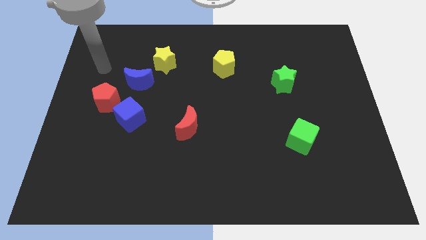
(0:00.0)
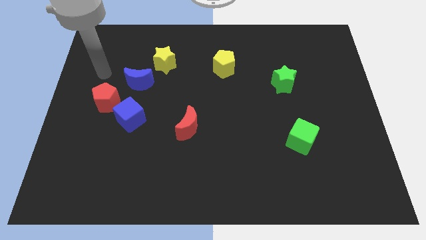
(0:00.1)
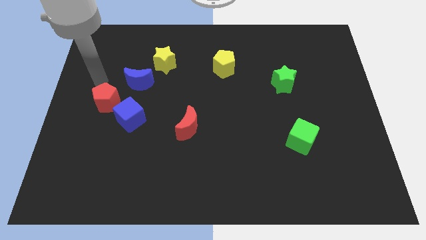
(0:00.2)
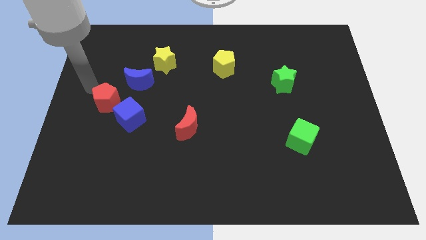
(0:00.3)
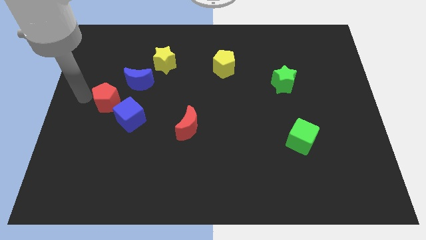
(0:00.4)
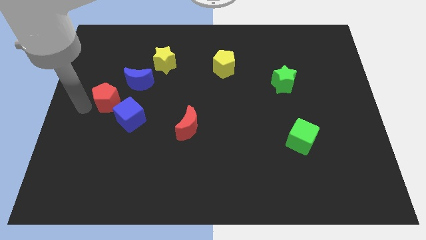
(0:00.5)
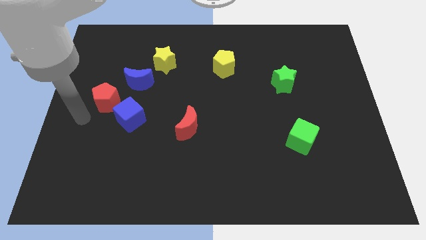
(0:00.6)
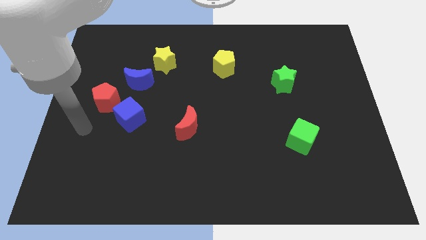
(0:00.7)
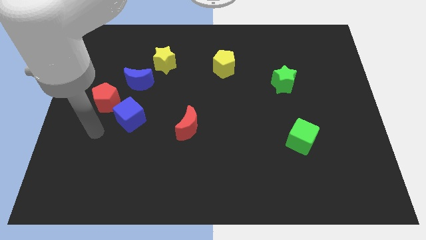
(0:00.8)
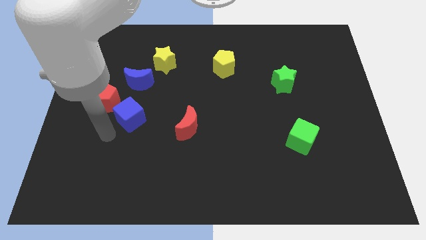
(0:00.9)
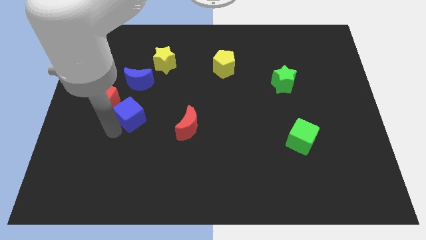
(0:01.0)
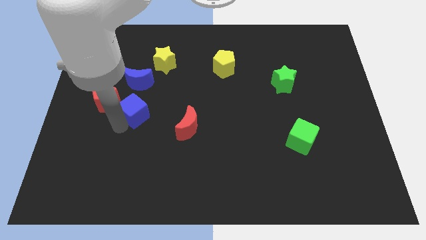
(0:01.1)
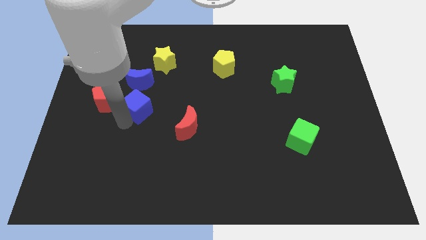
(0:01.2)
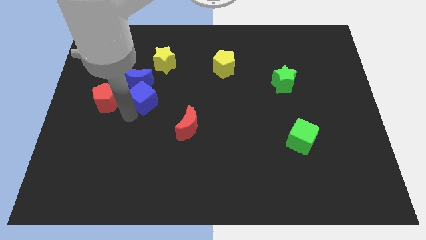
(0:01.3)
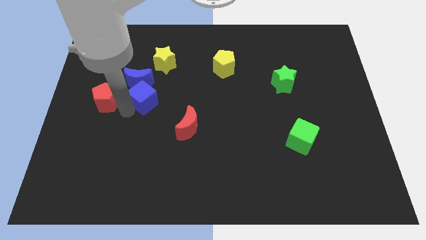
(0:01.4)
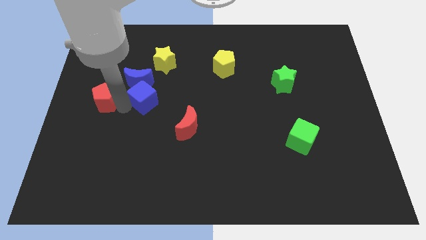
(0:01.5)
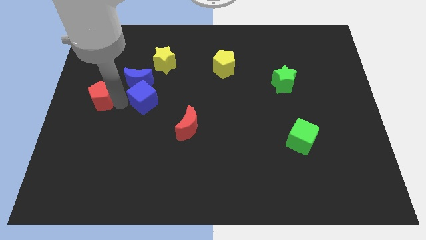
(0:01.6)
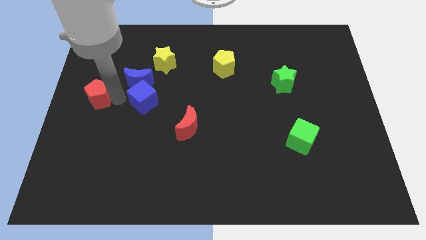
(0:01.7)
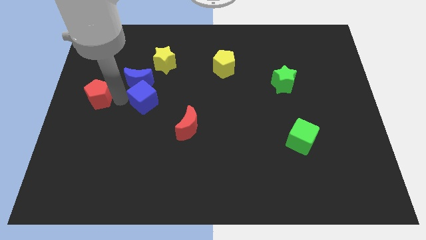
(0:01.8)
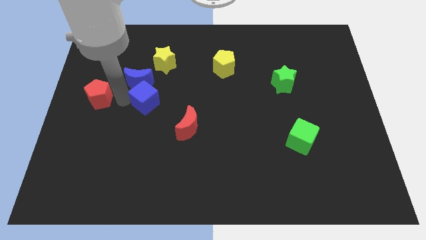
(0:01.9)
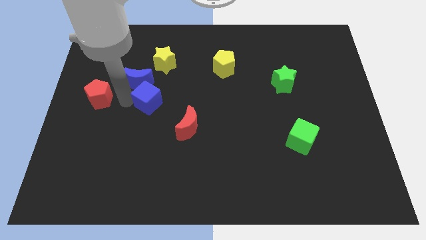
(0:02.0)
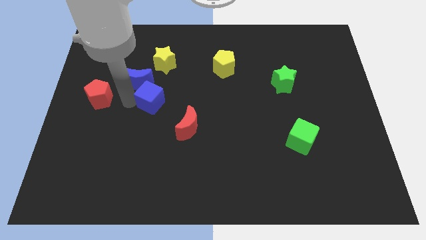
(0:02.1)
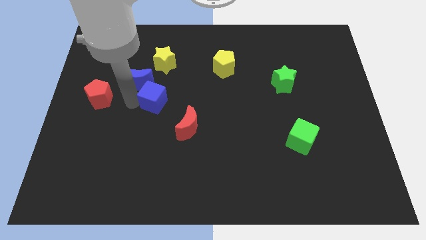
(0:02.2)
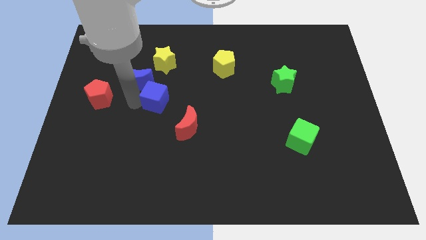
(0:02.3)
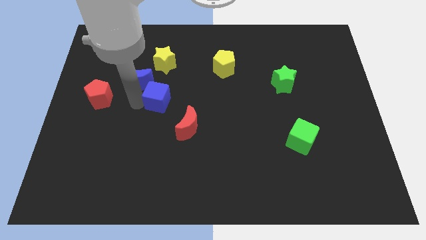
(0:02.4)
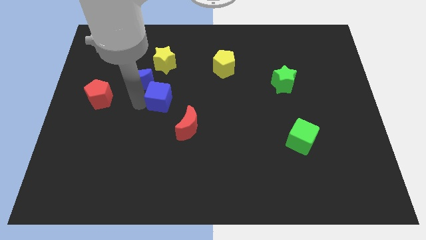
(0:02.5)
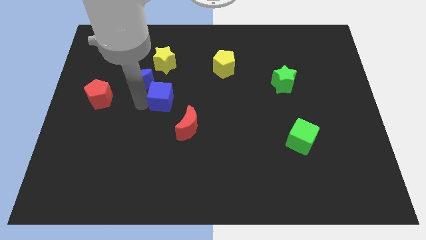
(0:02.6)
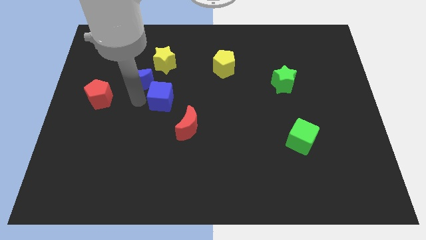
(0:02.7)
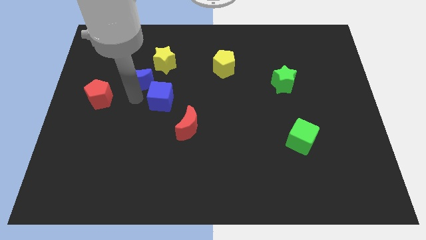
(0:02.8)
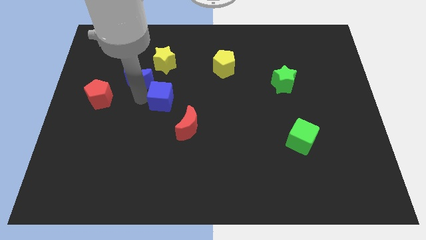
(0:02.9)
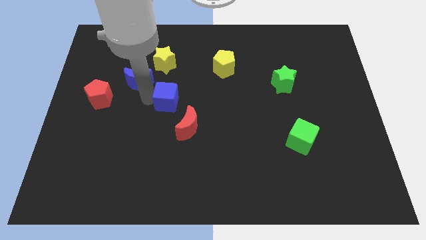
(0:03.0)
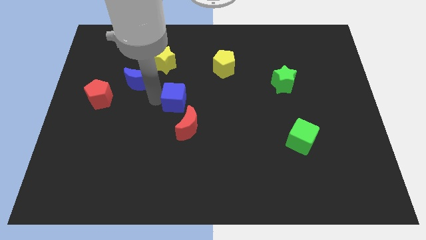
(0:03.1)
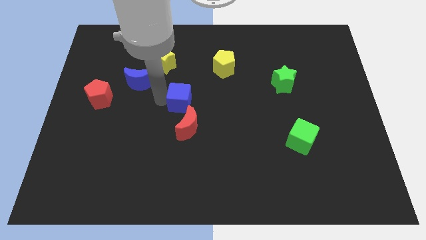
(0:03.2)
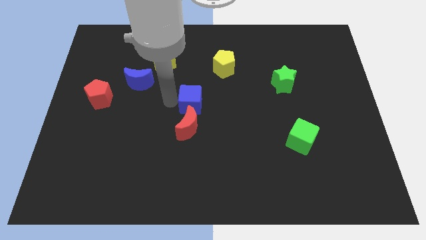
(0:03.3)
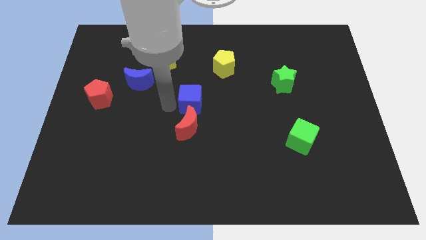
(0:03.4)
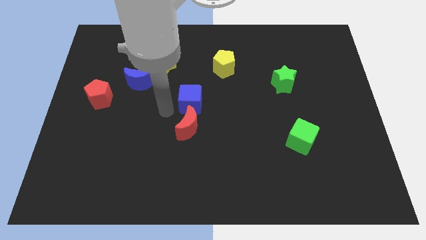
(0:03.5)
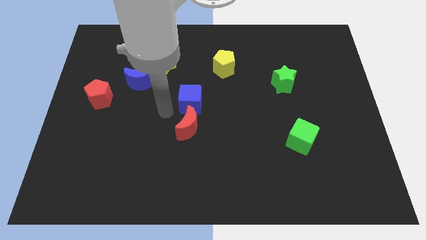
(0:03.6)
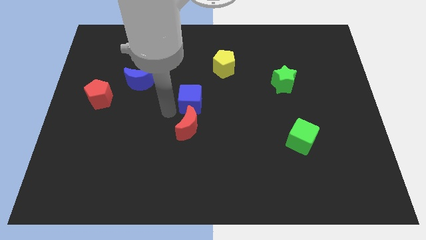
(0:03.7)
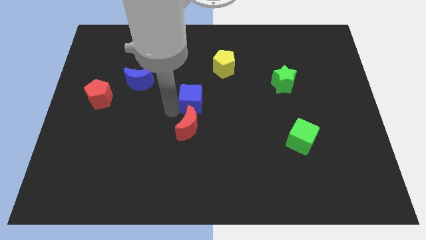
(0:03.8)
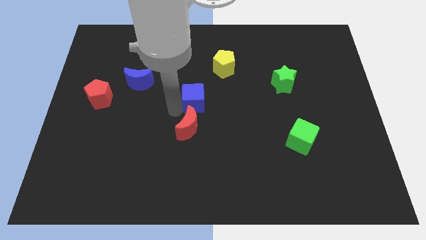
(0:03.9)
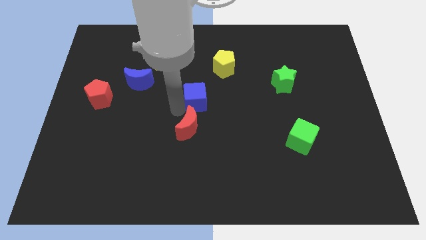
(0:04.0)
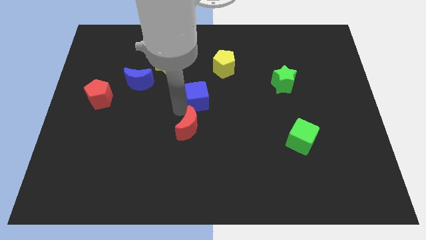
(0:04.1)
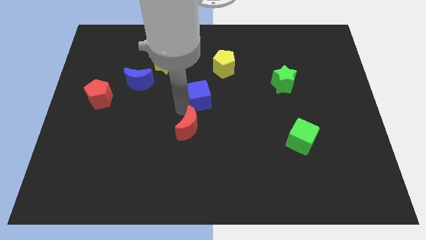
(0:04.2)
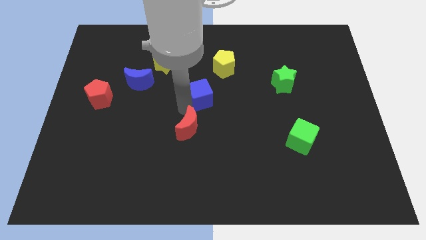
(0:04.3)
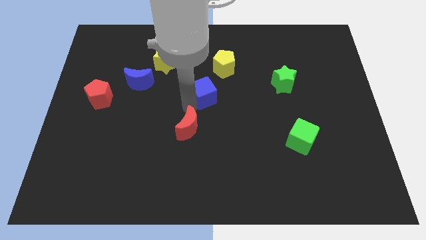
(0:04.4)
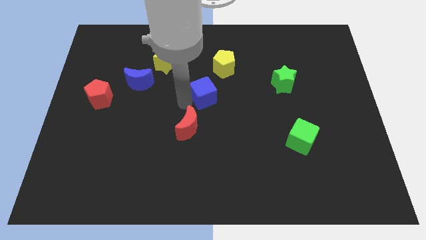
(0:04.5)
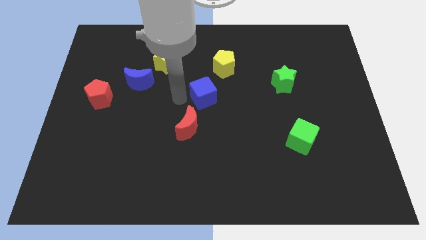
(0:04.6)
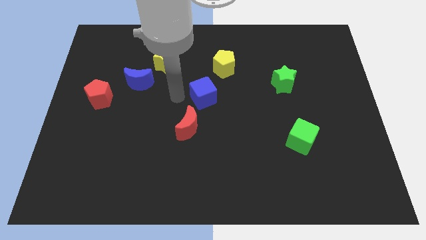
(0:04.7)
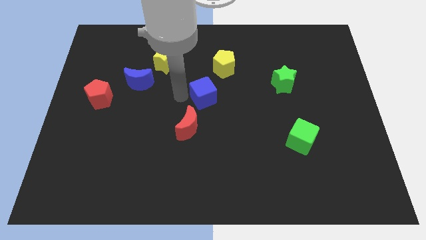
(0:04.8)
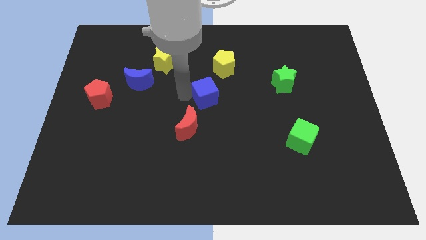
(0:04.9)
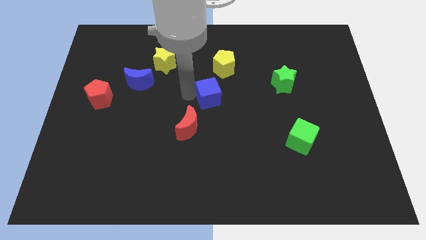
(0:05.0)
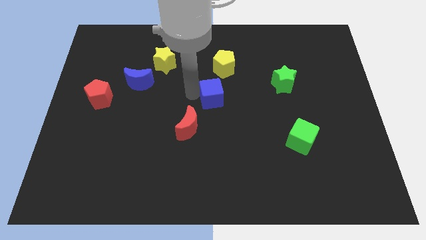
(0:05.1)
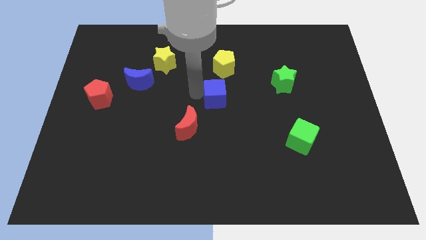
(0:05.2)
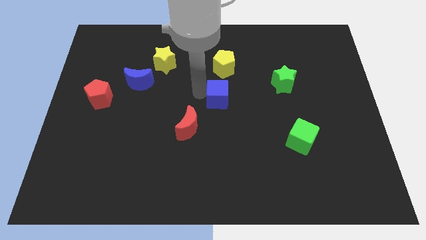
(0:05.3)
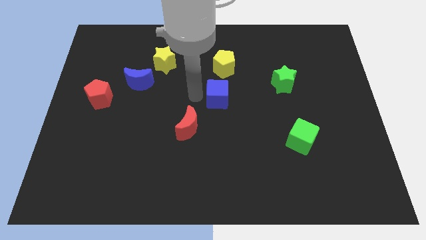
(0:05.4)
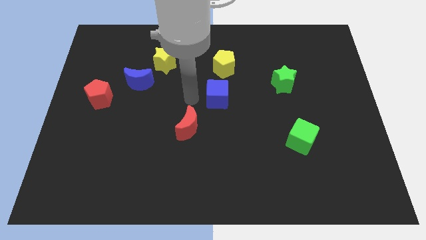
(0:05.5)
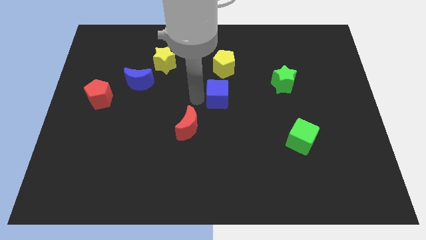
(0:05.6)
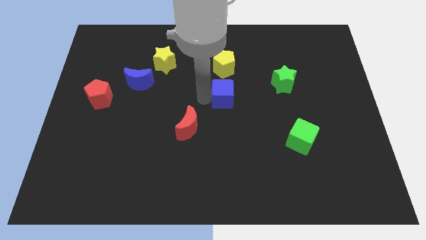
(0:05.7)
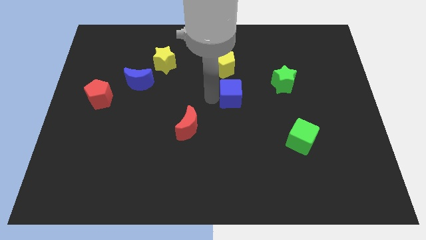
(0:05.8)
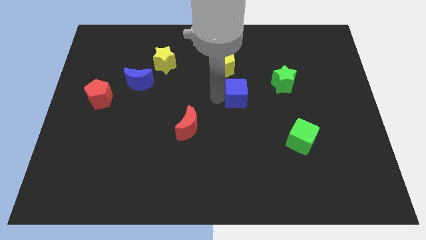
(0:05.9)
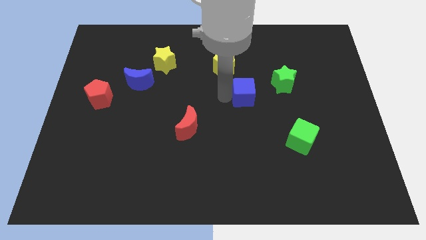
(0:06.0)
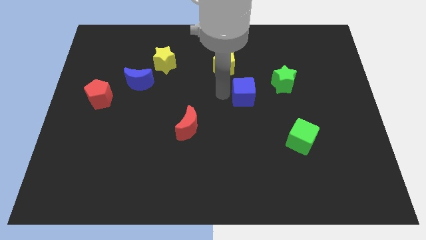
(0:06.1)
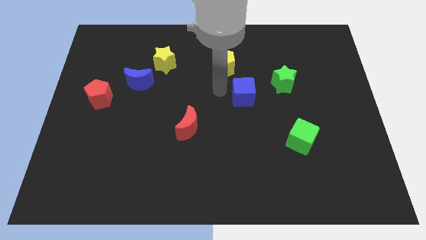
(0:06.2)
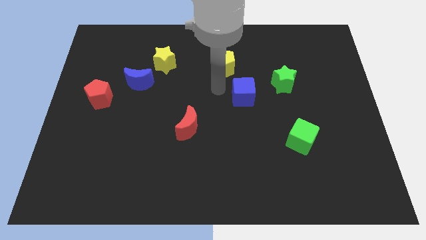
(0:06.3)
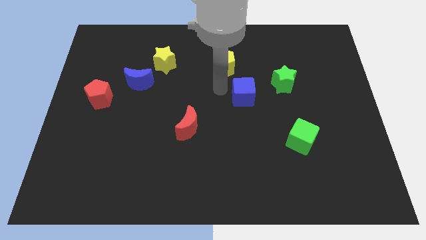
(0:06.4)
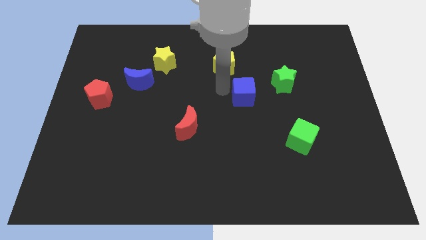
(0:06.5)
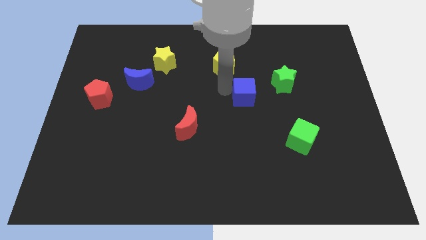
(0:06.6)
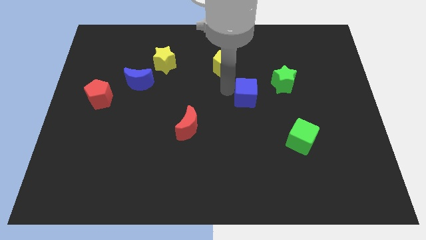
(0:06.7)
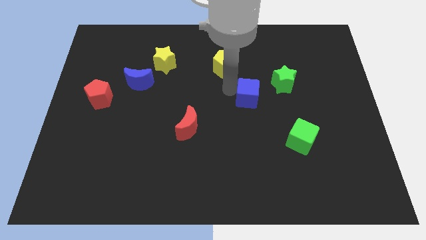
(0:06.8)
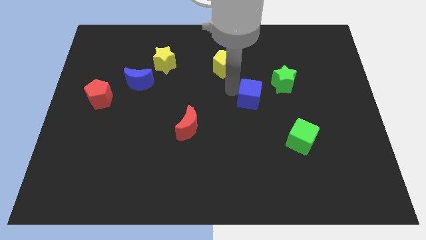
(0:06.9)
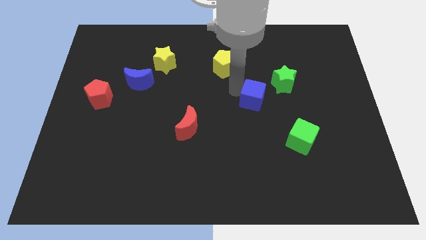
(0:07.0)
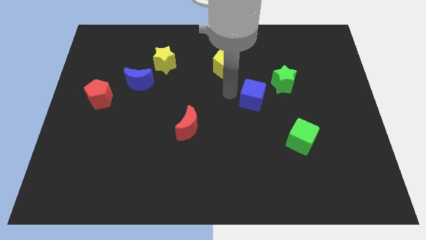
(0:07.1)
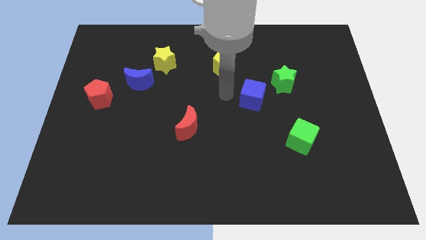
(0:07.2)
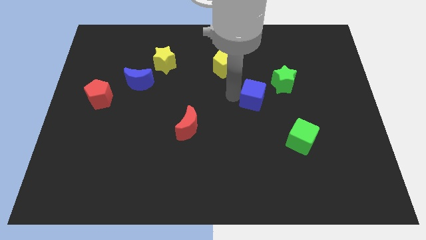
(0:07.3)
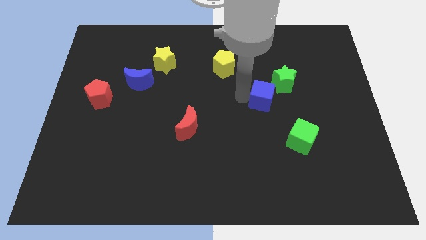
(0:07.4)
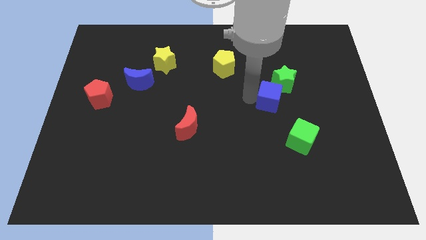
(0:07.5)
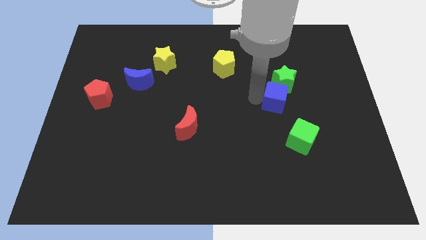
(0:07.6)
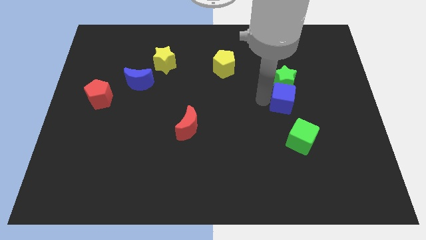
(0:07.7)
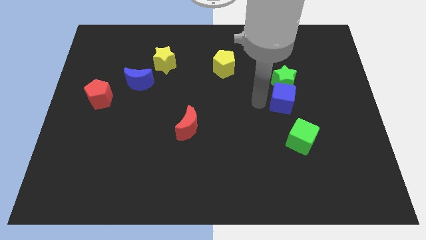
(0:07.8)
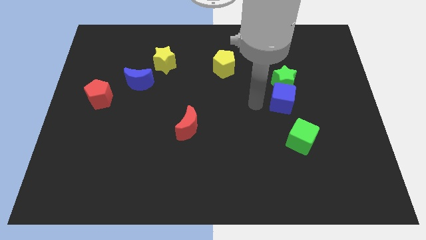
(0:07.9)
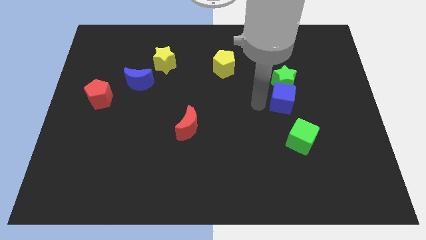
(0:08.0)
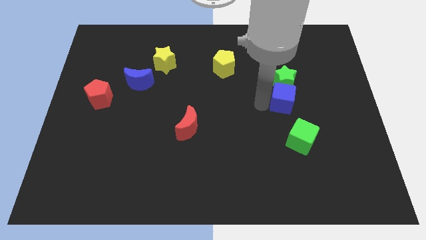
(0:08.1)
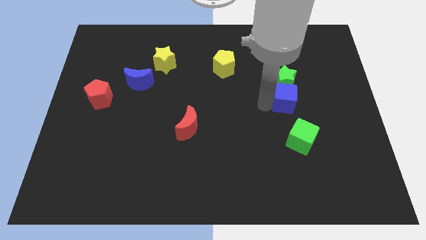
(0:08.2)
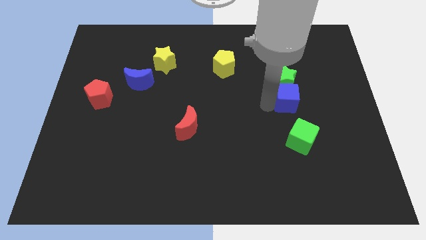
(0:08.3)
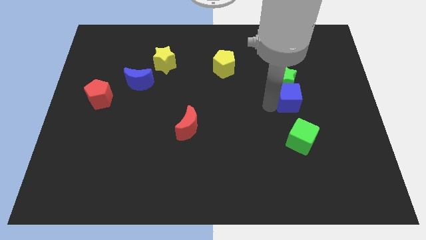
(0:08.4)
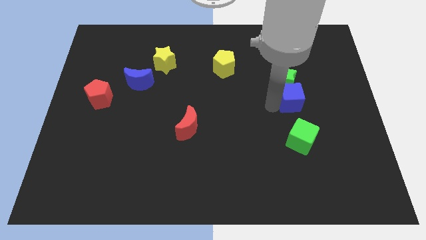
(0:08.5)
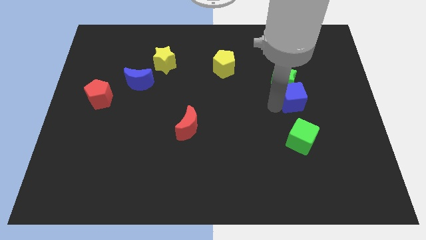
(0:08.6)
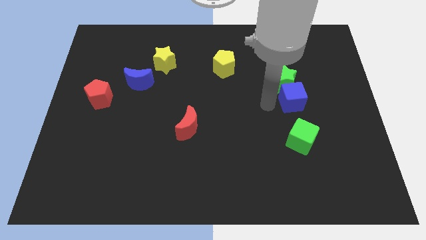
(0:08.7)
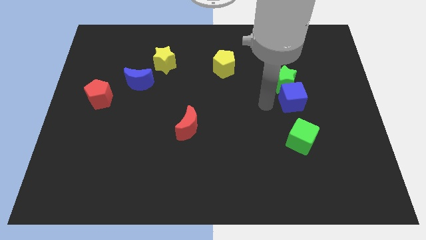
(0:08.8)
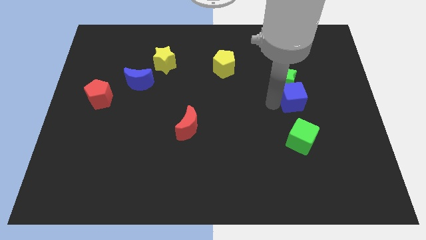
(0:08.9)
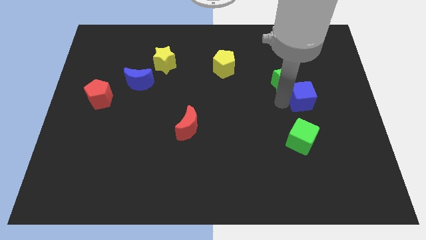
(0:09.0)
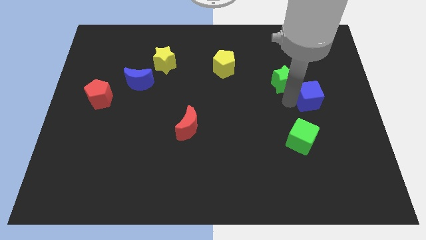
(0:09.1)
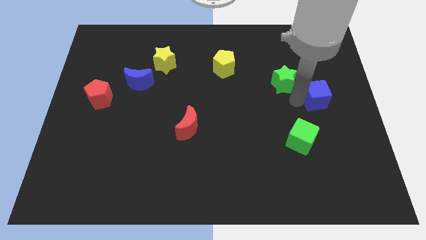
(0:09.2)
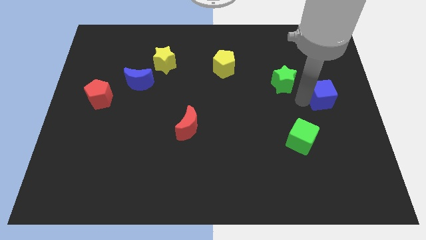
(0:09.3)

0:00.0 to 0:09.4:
push the blue cube to the right side of the board
